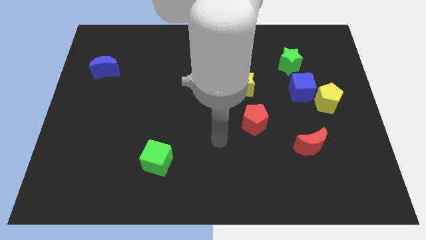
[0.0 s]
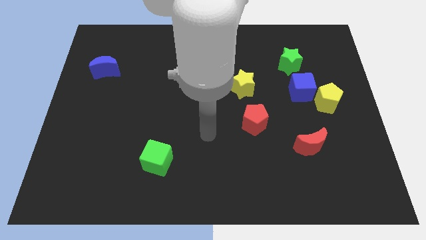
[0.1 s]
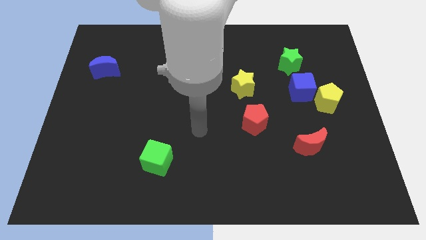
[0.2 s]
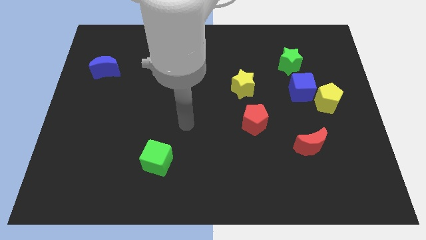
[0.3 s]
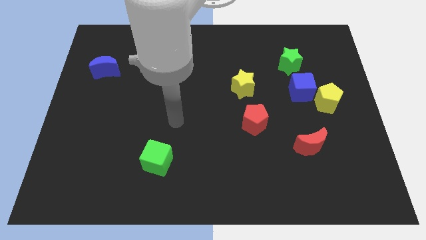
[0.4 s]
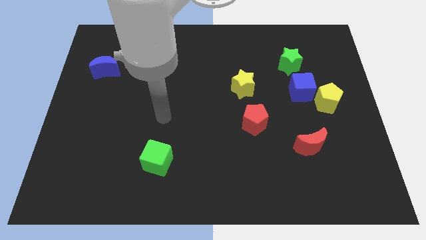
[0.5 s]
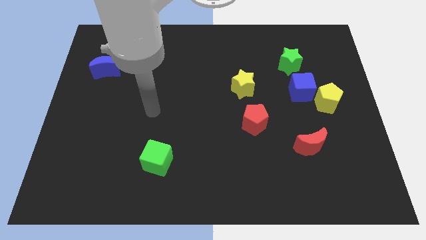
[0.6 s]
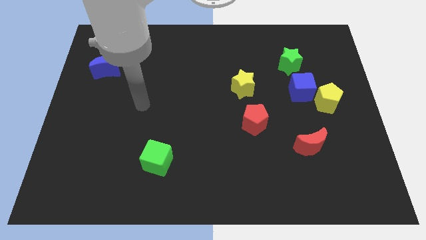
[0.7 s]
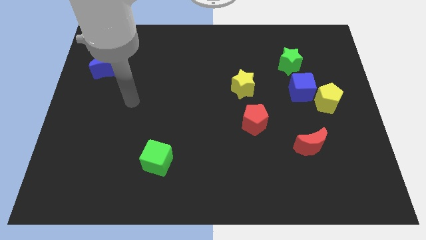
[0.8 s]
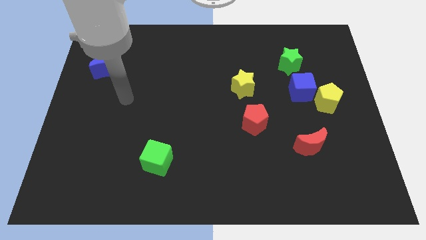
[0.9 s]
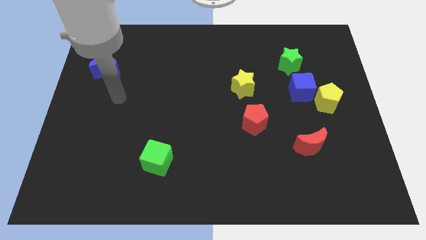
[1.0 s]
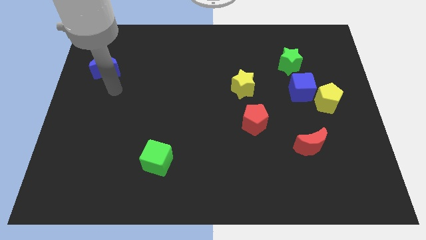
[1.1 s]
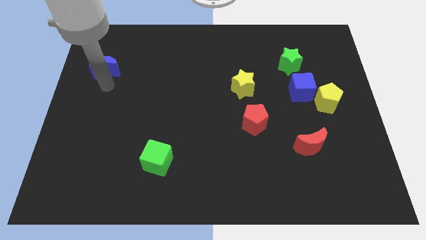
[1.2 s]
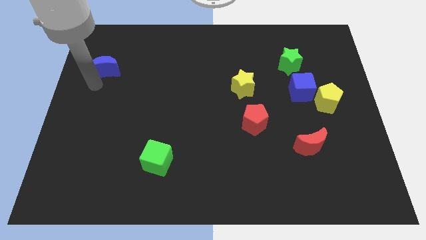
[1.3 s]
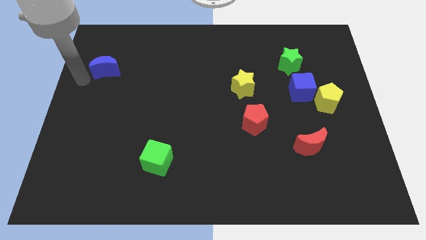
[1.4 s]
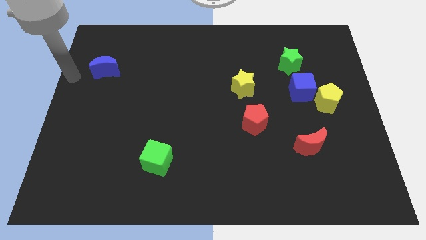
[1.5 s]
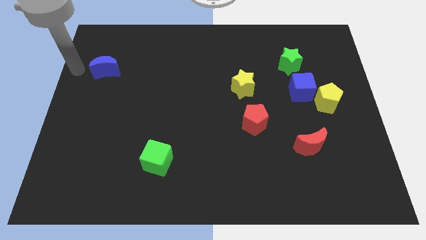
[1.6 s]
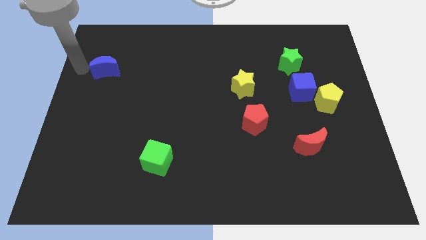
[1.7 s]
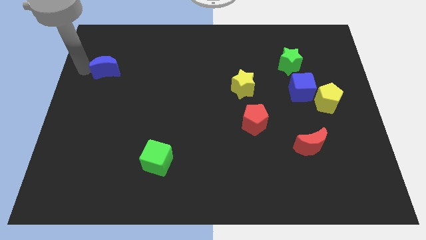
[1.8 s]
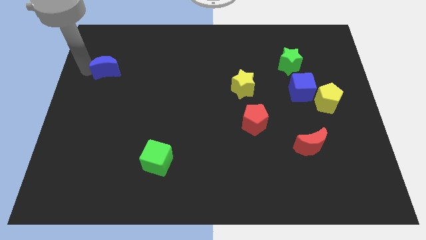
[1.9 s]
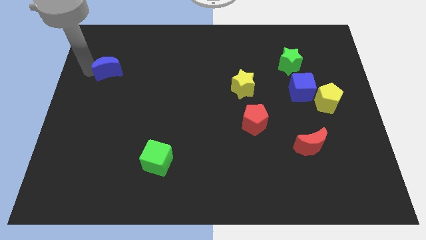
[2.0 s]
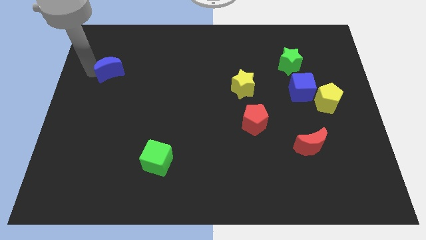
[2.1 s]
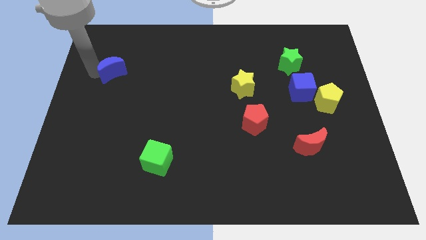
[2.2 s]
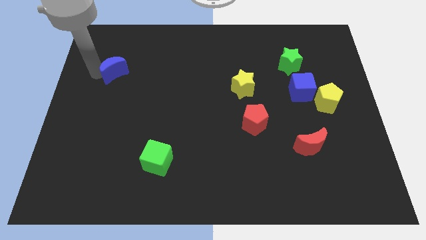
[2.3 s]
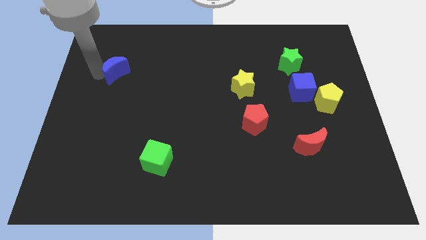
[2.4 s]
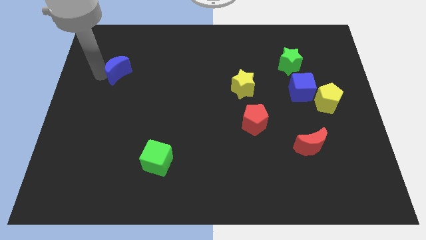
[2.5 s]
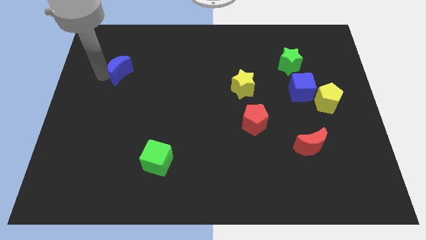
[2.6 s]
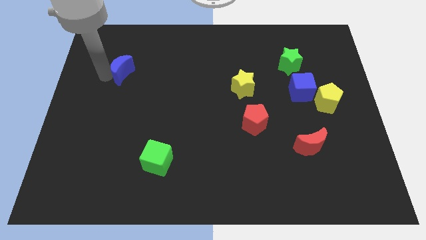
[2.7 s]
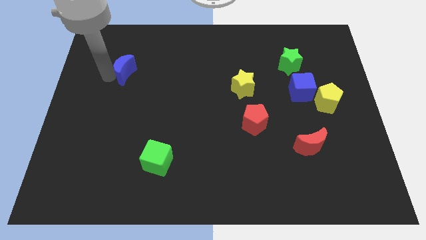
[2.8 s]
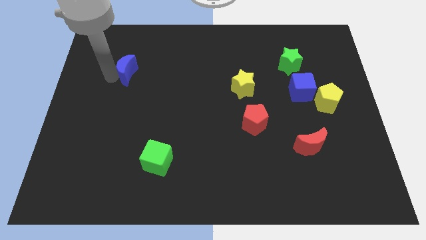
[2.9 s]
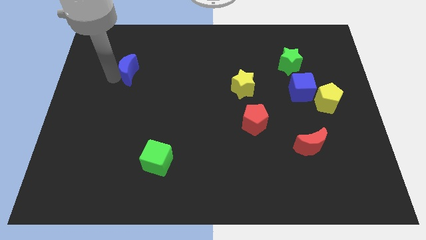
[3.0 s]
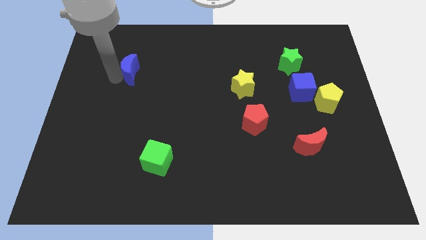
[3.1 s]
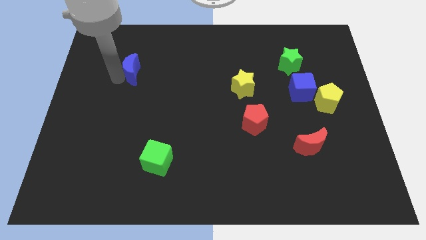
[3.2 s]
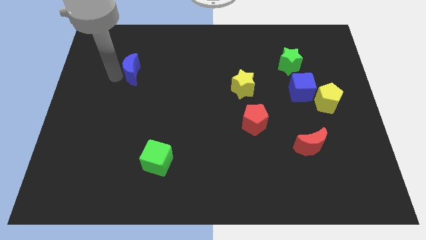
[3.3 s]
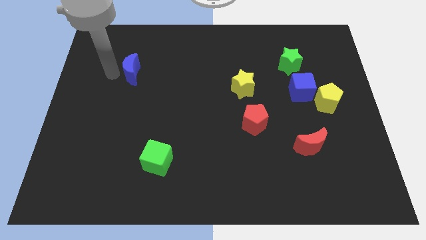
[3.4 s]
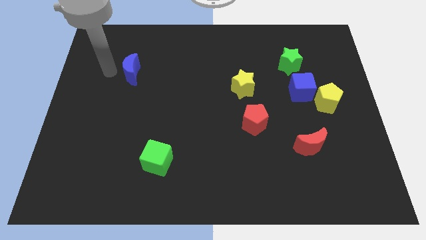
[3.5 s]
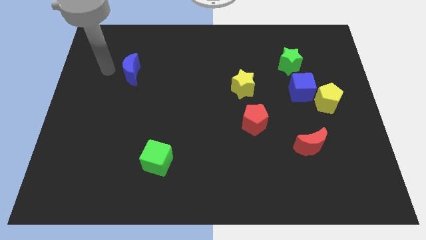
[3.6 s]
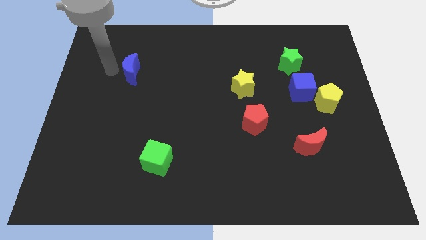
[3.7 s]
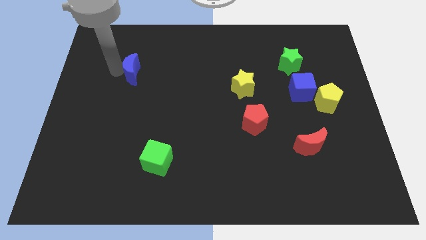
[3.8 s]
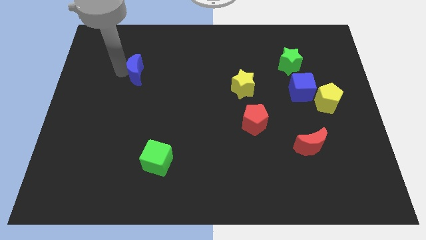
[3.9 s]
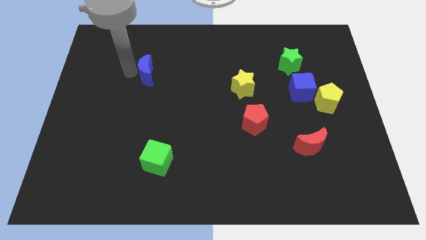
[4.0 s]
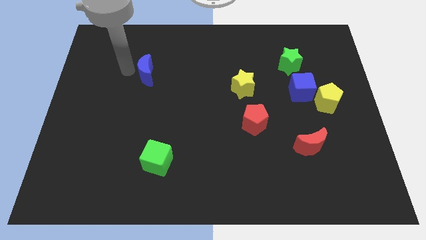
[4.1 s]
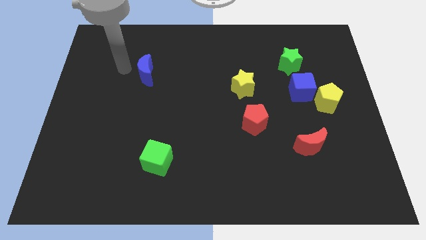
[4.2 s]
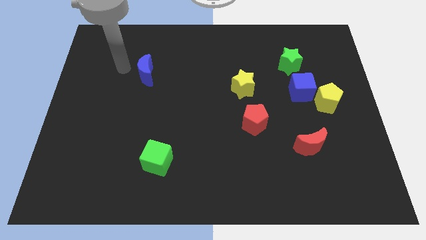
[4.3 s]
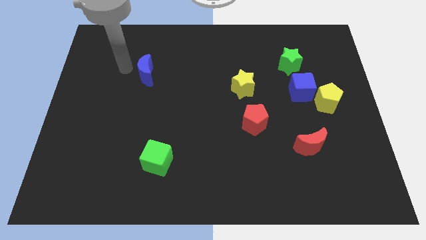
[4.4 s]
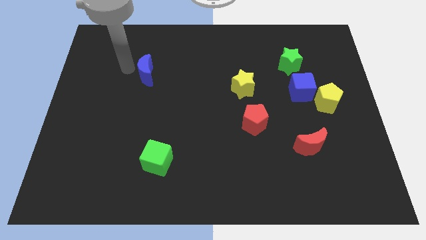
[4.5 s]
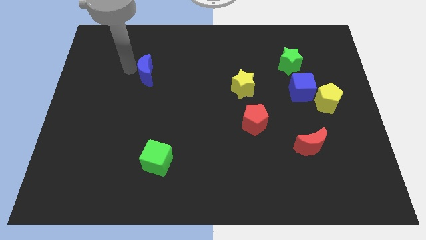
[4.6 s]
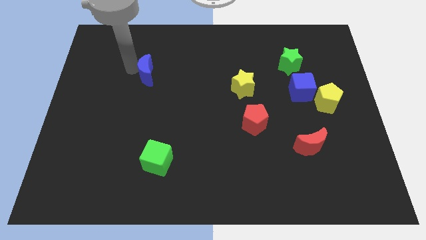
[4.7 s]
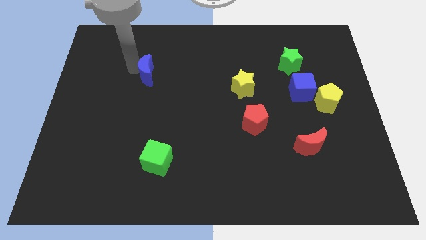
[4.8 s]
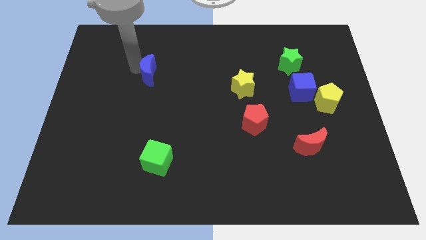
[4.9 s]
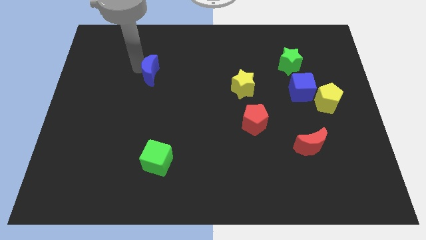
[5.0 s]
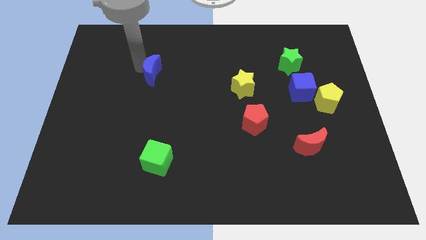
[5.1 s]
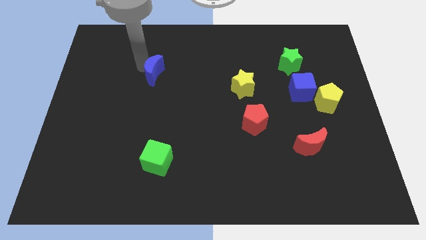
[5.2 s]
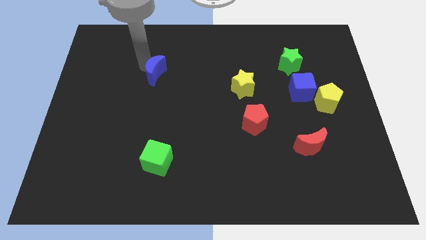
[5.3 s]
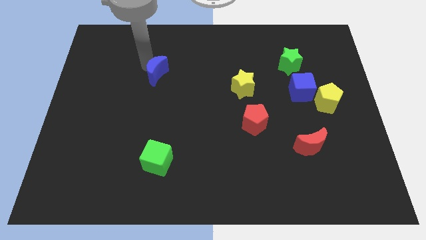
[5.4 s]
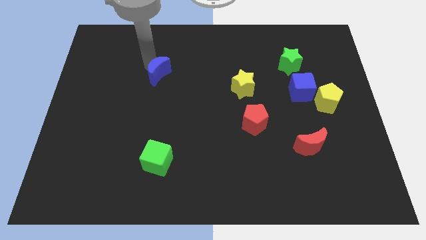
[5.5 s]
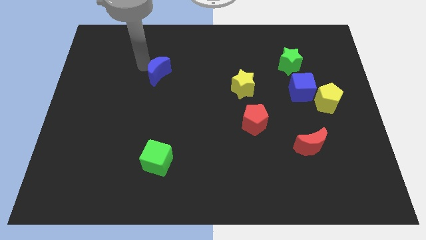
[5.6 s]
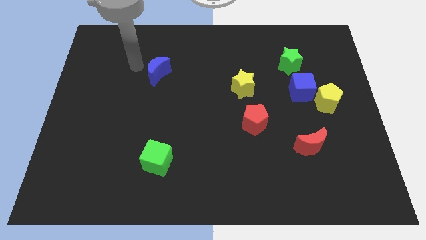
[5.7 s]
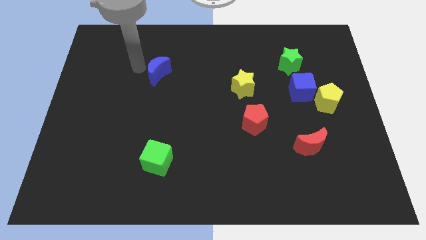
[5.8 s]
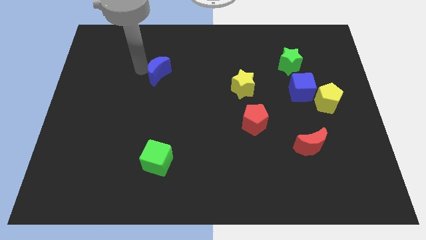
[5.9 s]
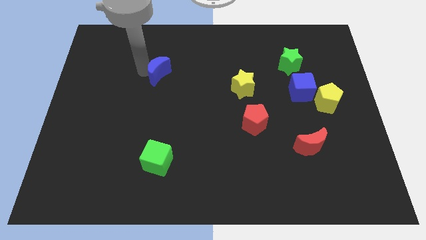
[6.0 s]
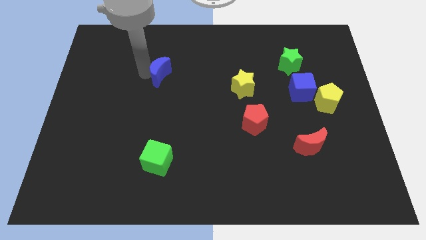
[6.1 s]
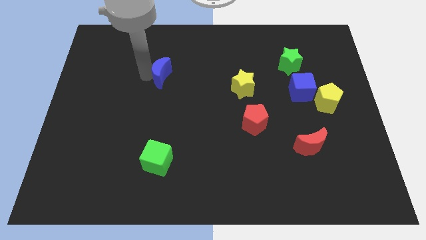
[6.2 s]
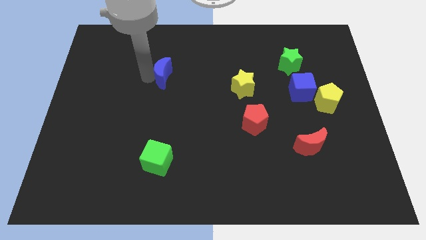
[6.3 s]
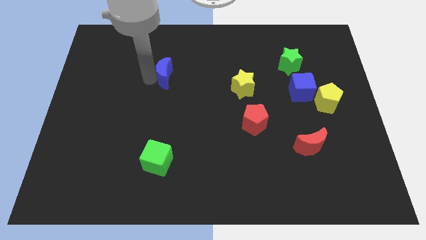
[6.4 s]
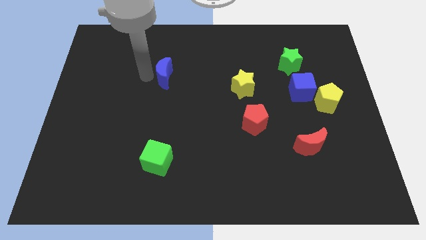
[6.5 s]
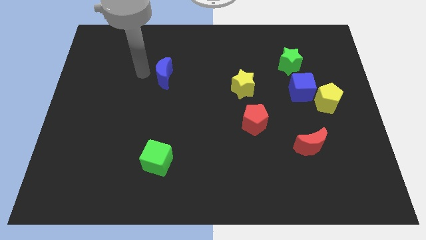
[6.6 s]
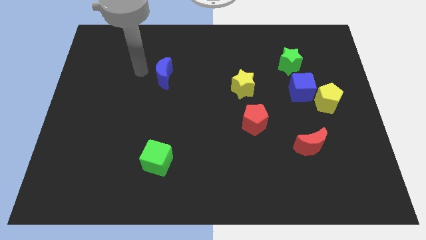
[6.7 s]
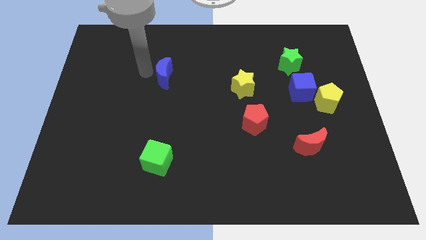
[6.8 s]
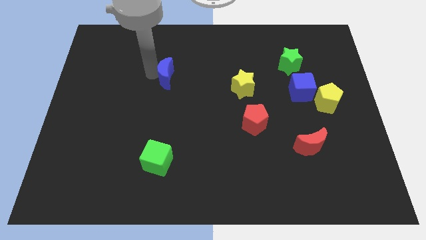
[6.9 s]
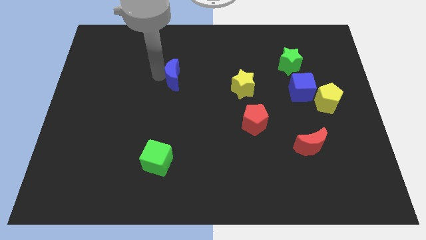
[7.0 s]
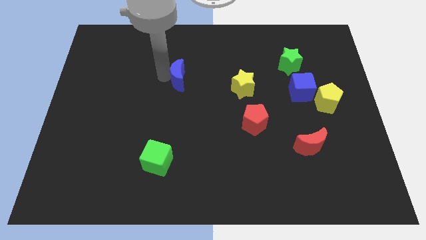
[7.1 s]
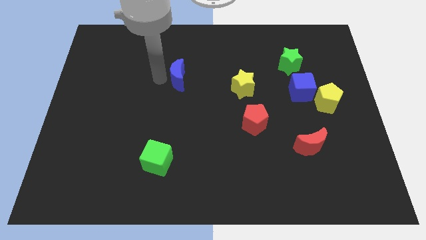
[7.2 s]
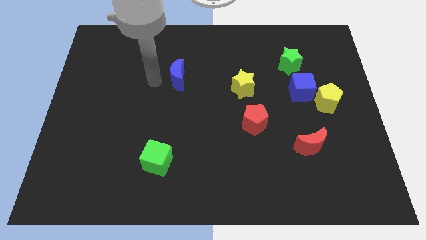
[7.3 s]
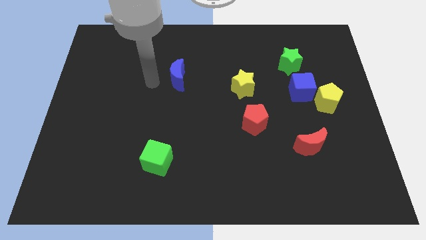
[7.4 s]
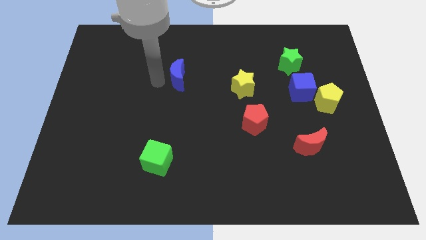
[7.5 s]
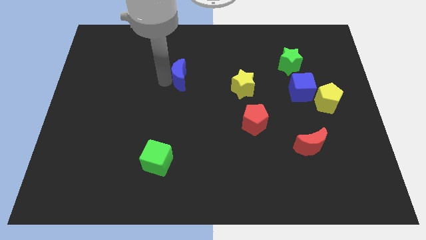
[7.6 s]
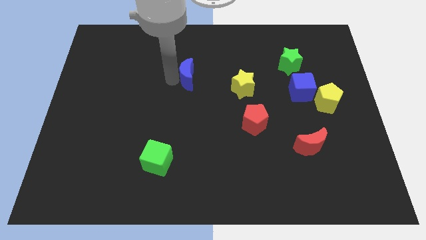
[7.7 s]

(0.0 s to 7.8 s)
slide the blue moon right

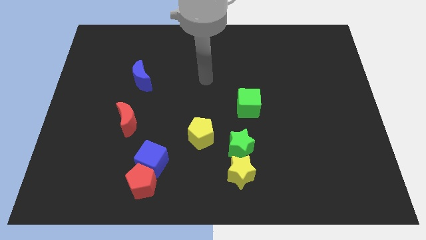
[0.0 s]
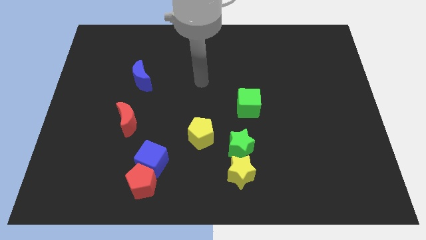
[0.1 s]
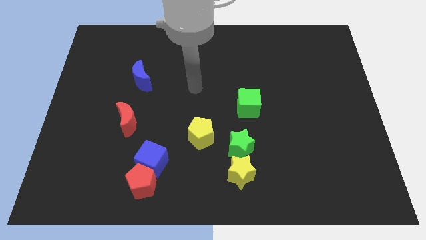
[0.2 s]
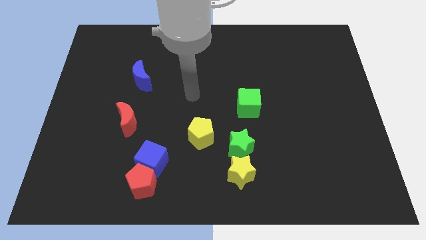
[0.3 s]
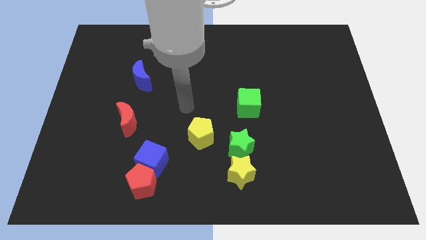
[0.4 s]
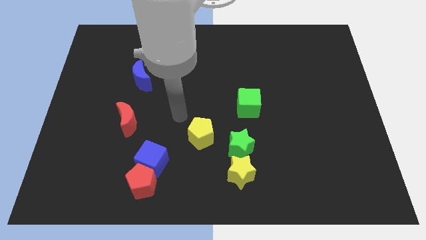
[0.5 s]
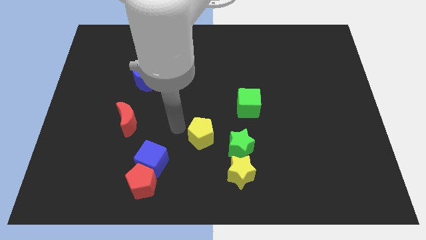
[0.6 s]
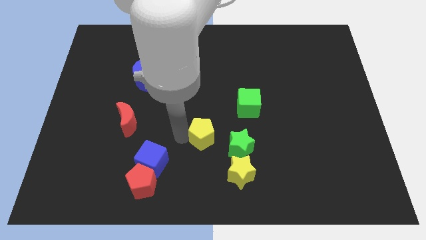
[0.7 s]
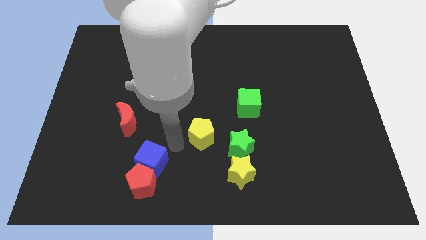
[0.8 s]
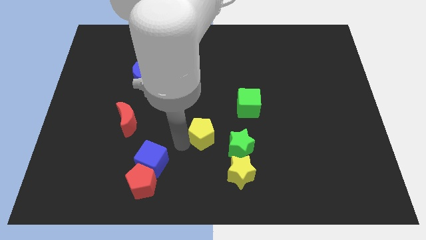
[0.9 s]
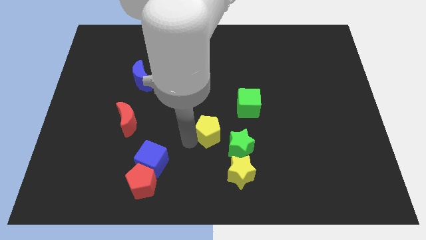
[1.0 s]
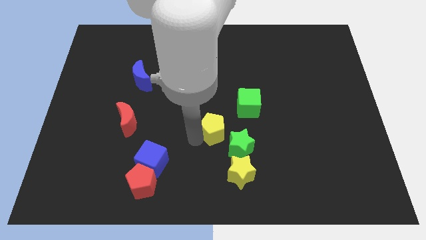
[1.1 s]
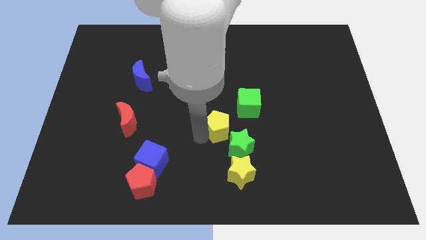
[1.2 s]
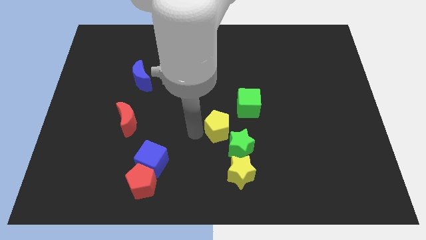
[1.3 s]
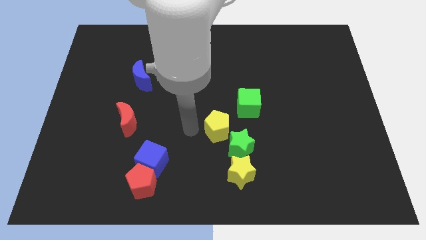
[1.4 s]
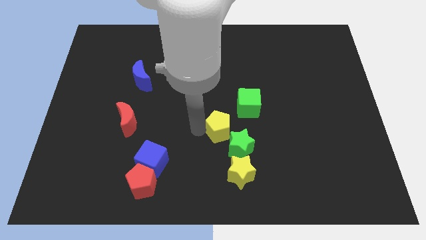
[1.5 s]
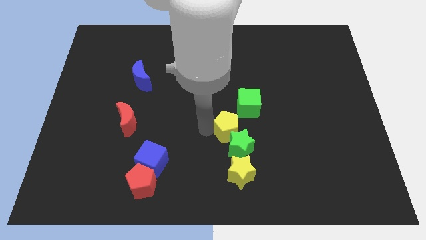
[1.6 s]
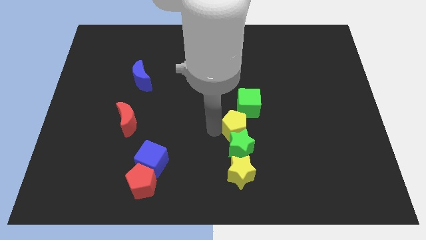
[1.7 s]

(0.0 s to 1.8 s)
push the yellow pentagon to the right slightly
